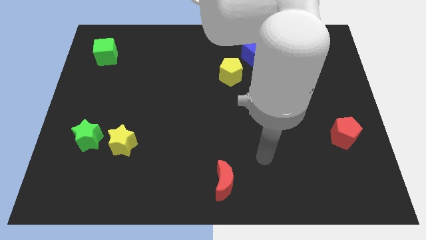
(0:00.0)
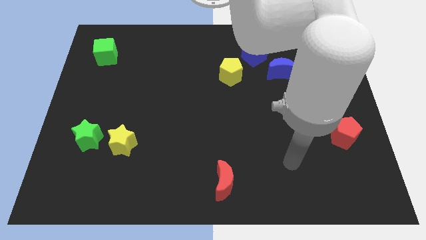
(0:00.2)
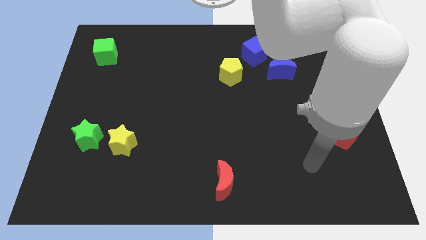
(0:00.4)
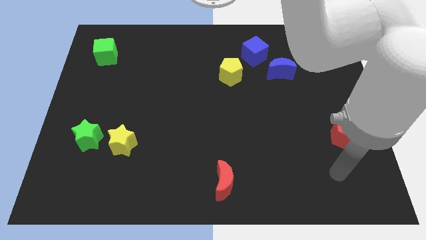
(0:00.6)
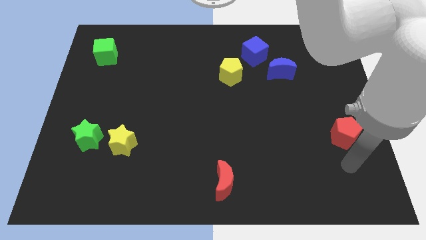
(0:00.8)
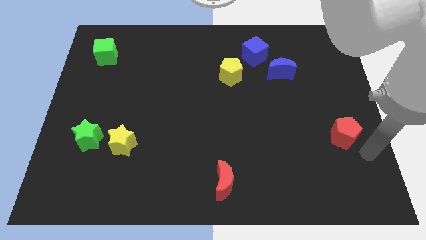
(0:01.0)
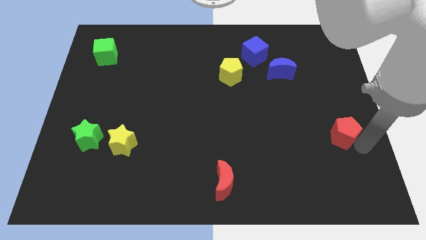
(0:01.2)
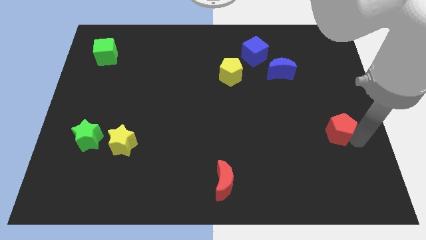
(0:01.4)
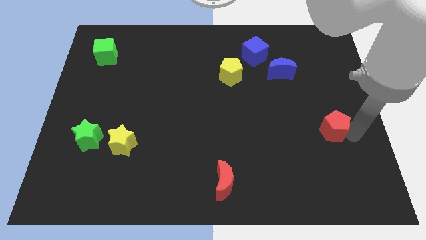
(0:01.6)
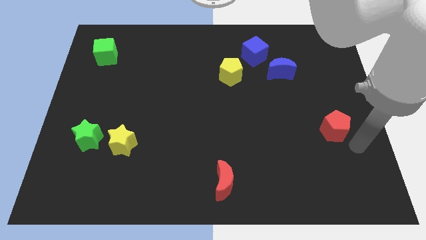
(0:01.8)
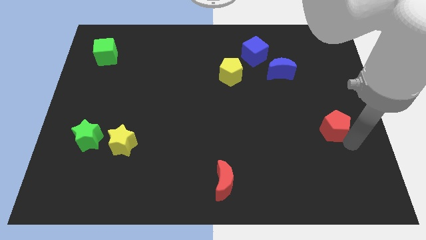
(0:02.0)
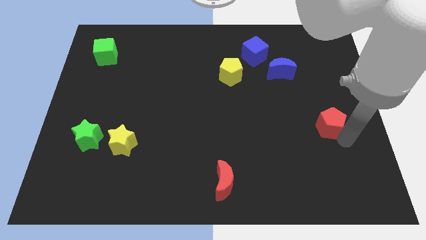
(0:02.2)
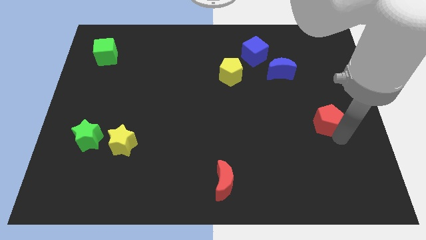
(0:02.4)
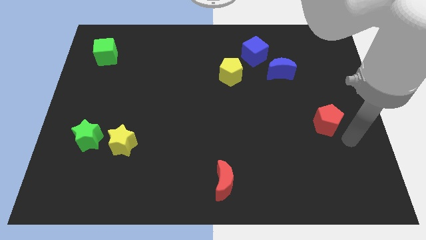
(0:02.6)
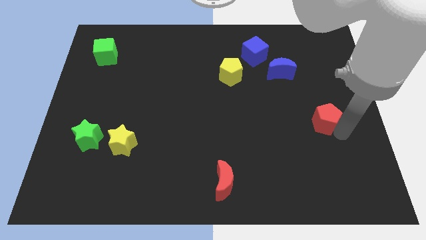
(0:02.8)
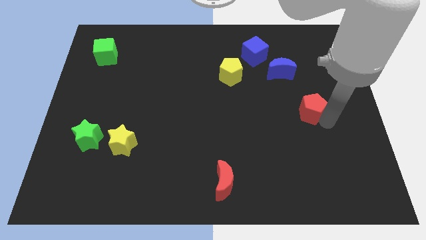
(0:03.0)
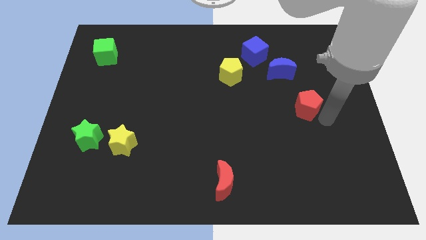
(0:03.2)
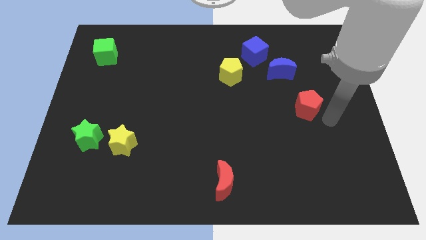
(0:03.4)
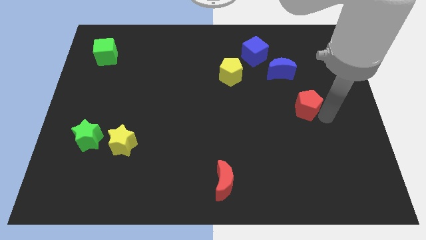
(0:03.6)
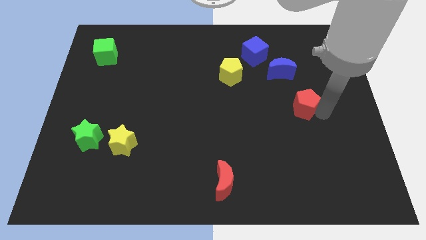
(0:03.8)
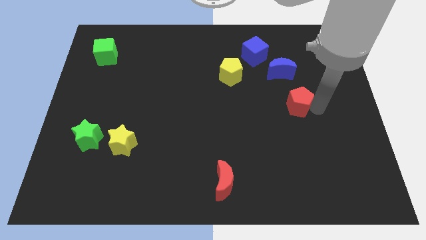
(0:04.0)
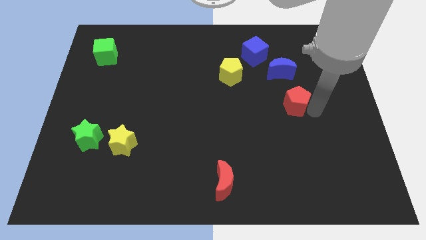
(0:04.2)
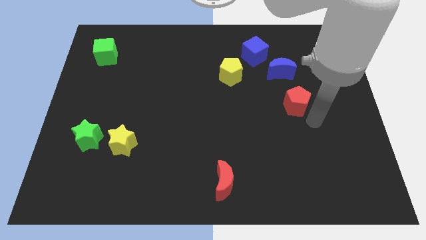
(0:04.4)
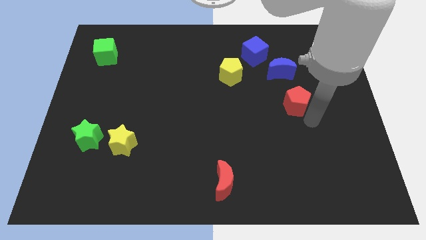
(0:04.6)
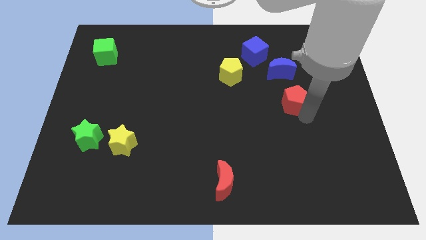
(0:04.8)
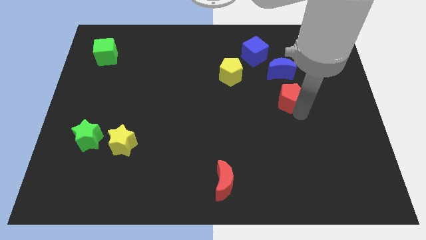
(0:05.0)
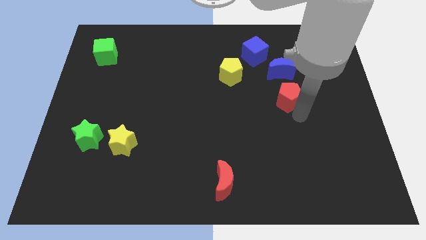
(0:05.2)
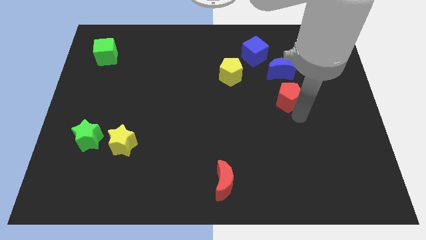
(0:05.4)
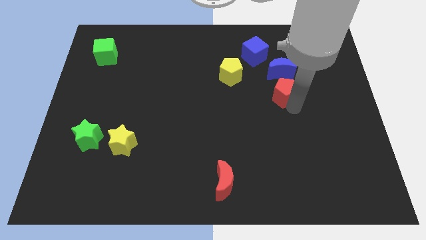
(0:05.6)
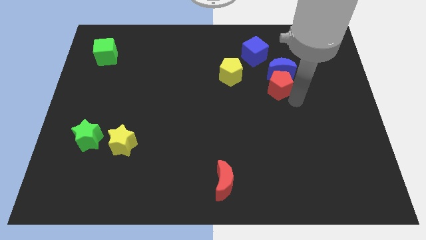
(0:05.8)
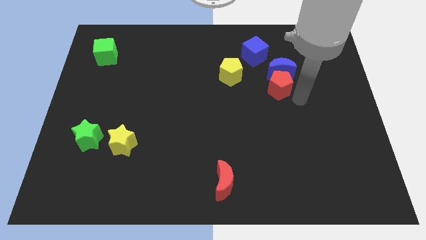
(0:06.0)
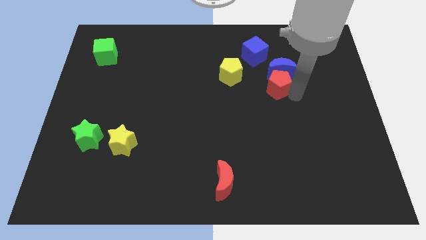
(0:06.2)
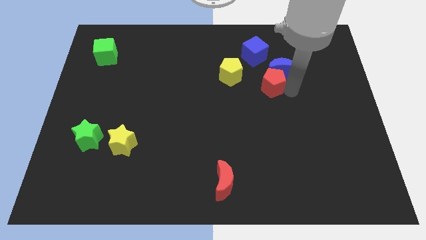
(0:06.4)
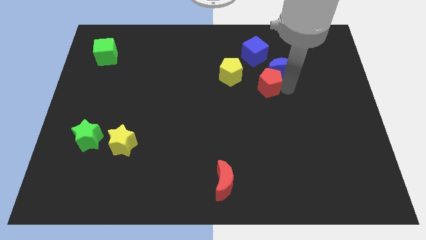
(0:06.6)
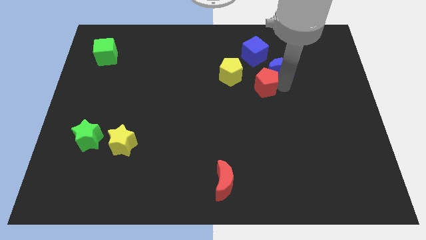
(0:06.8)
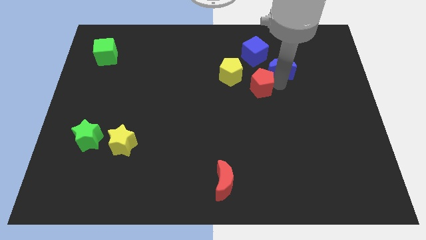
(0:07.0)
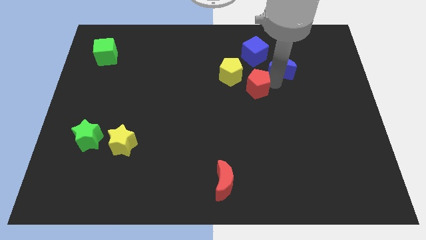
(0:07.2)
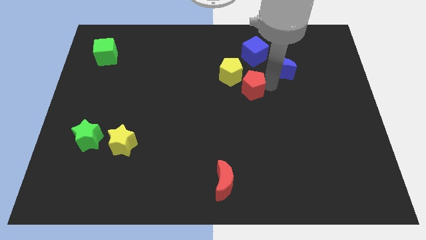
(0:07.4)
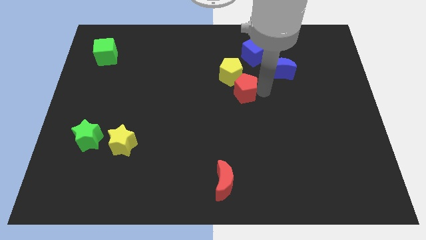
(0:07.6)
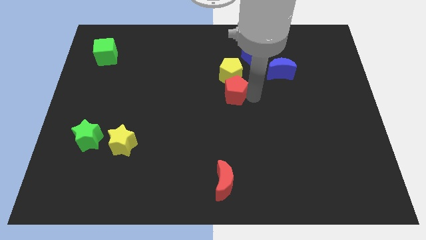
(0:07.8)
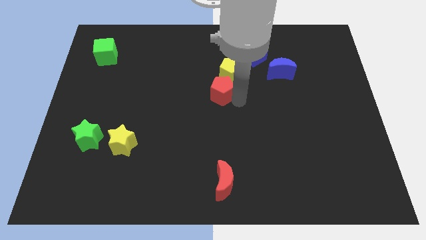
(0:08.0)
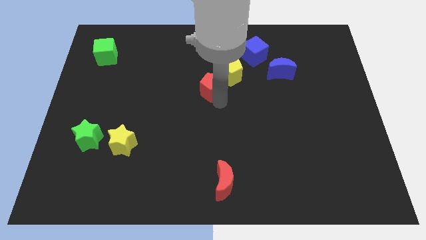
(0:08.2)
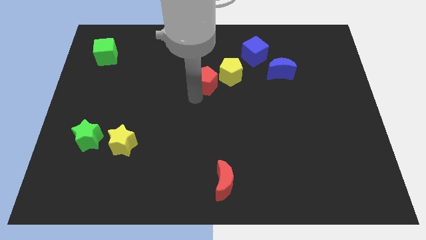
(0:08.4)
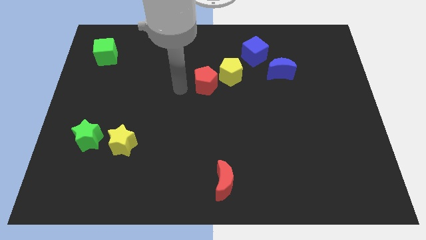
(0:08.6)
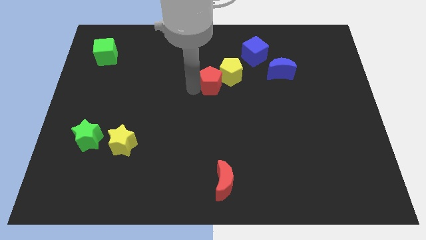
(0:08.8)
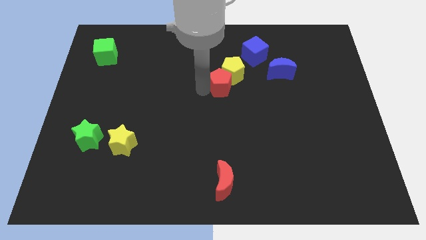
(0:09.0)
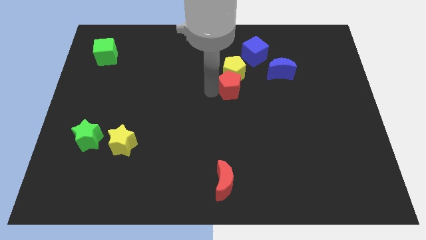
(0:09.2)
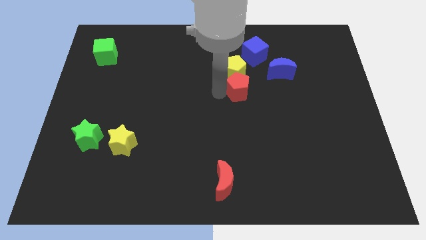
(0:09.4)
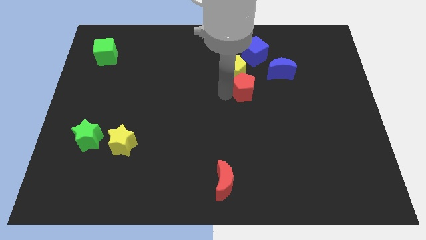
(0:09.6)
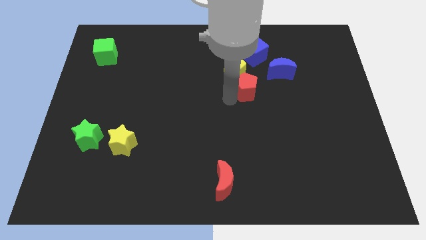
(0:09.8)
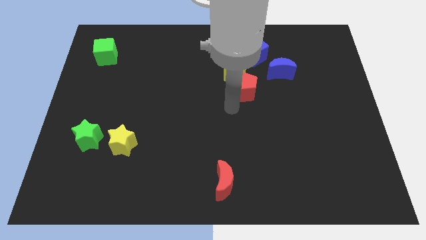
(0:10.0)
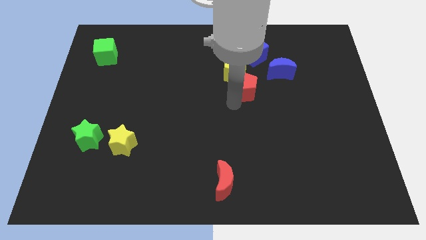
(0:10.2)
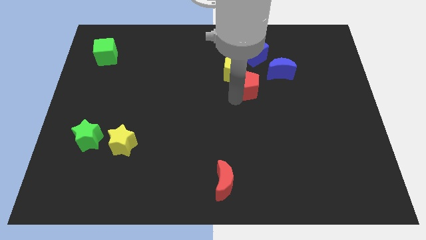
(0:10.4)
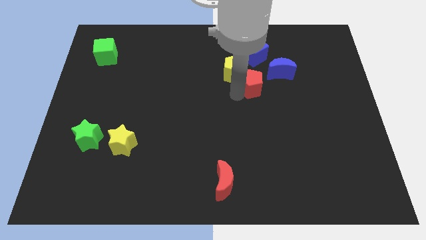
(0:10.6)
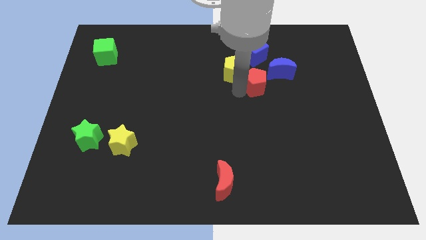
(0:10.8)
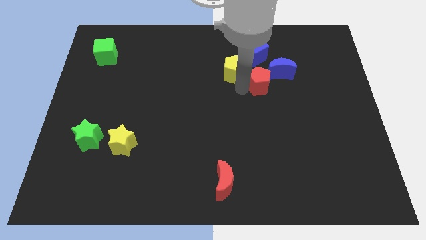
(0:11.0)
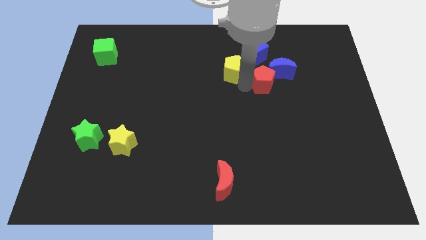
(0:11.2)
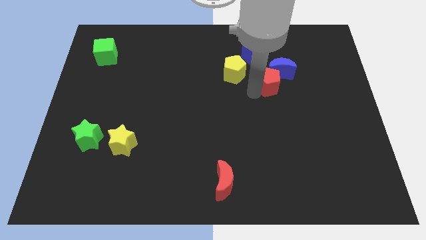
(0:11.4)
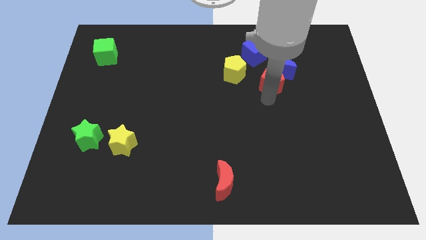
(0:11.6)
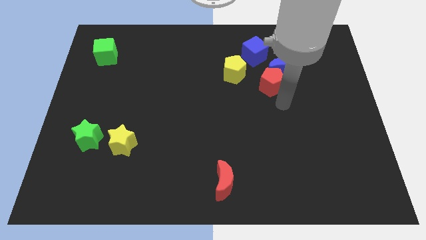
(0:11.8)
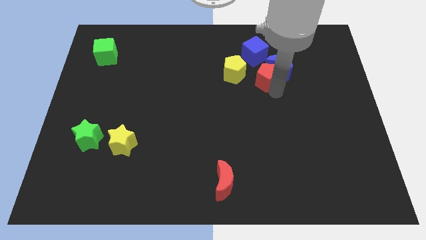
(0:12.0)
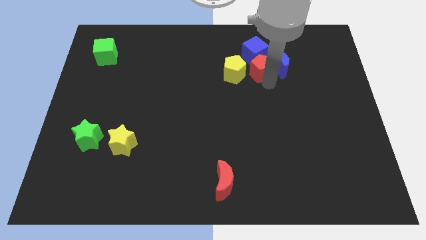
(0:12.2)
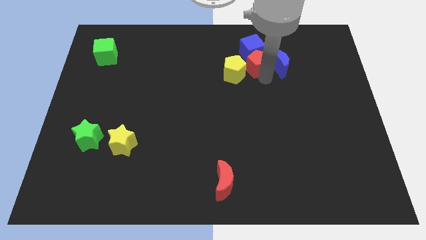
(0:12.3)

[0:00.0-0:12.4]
move the red pentagon to the blue cube

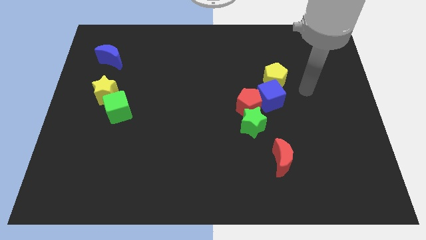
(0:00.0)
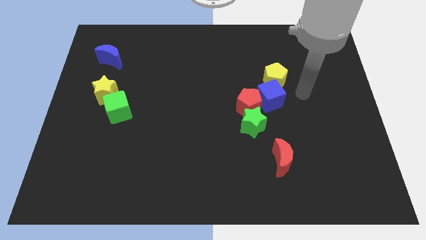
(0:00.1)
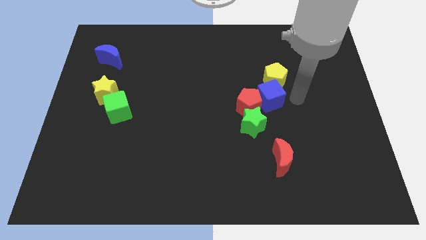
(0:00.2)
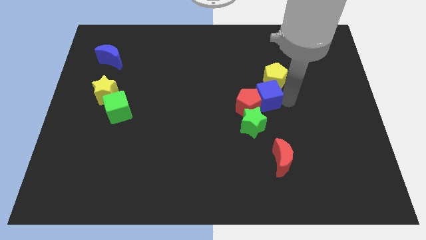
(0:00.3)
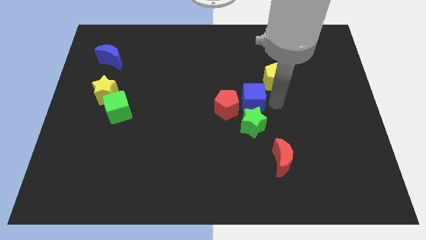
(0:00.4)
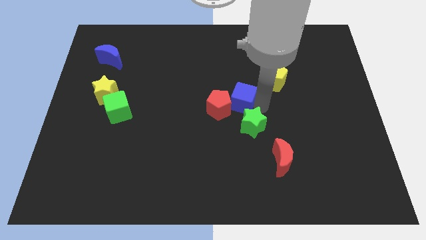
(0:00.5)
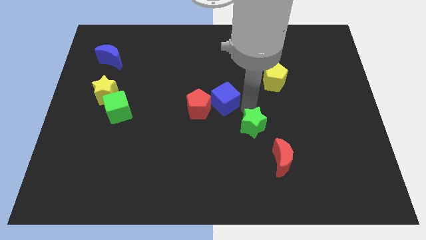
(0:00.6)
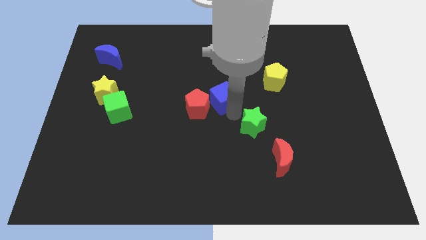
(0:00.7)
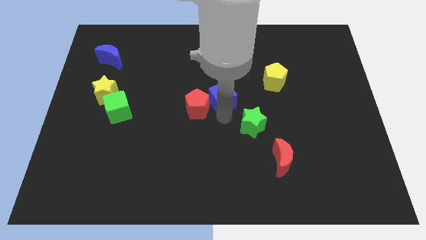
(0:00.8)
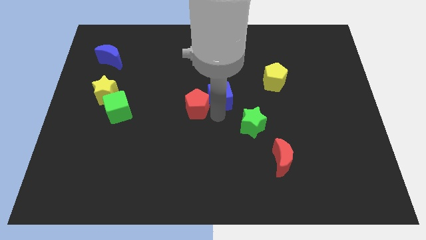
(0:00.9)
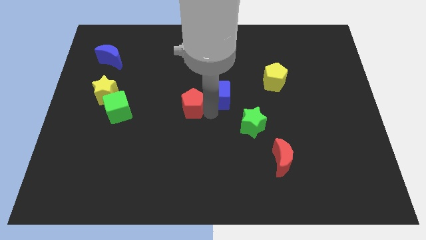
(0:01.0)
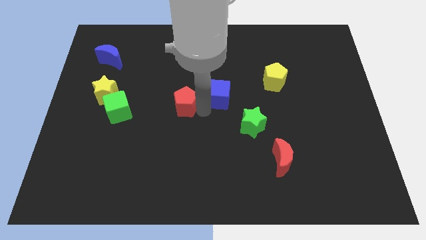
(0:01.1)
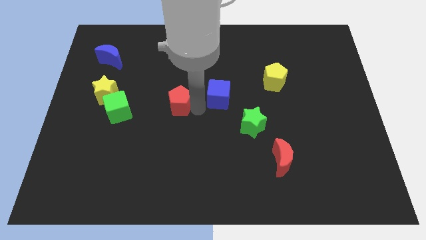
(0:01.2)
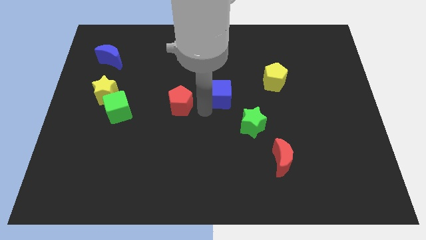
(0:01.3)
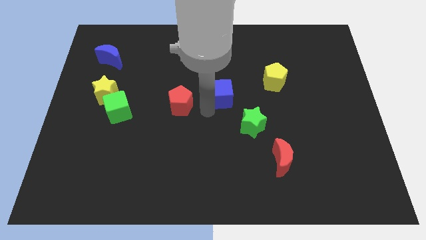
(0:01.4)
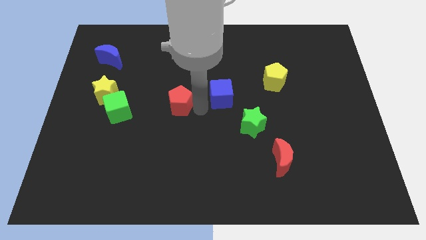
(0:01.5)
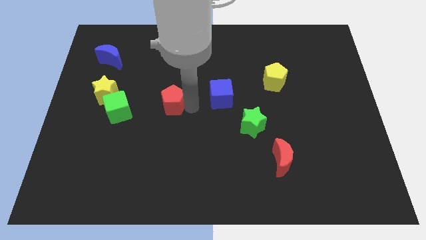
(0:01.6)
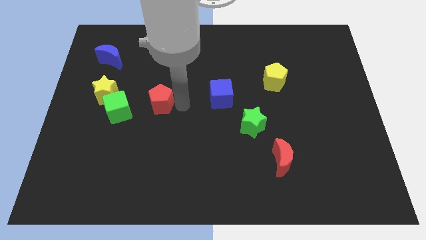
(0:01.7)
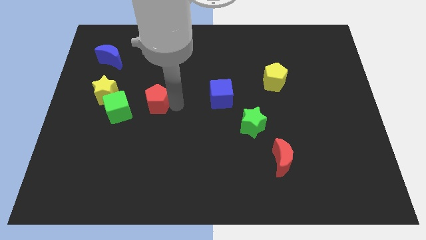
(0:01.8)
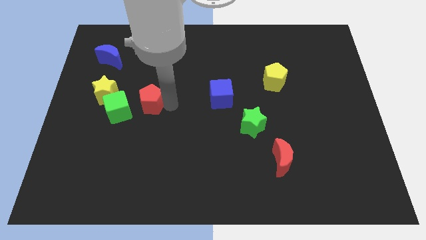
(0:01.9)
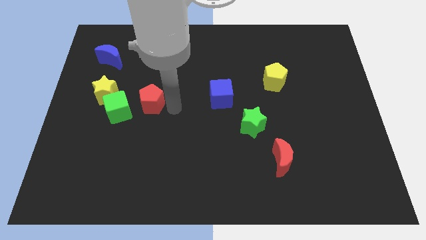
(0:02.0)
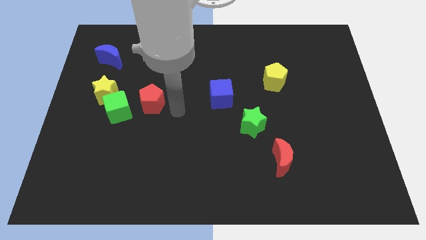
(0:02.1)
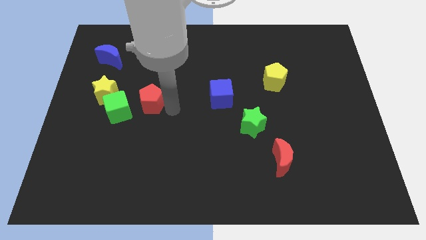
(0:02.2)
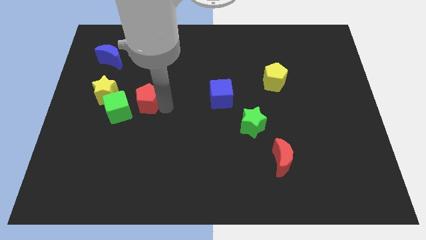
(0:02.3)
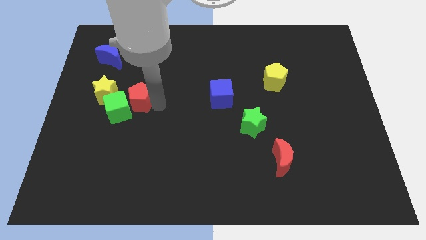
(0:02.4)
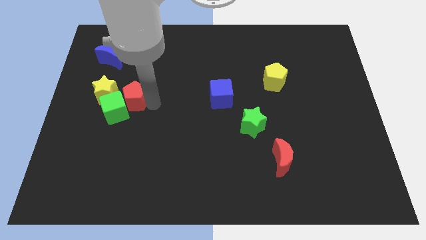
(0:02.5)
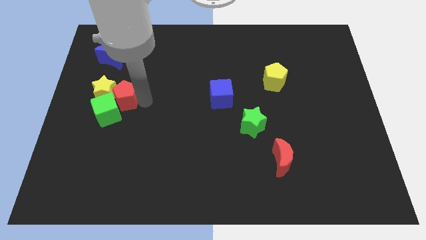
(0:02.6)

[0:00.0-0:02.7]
slide the red pentagon towards the yellow star
